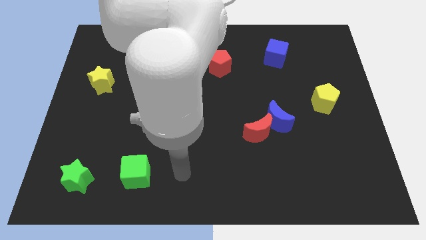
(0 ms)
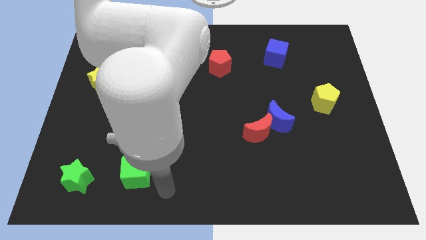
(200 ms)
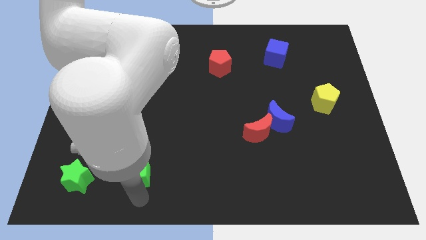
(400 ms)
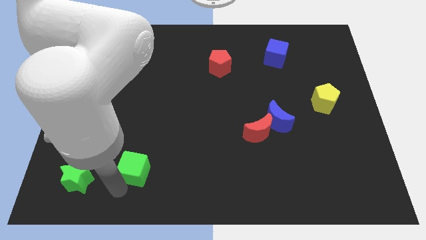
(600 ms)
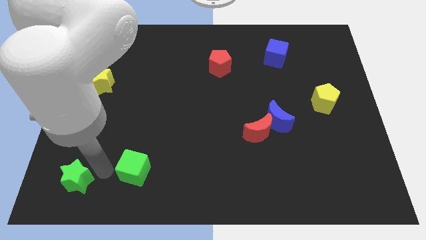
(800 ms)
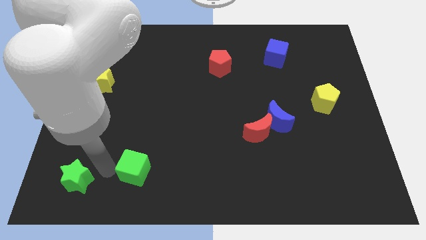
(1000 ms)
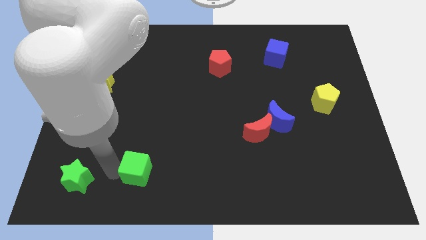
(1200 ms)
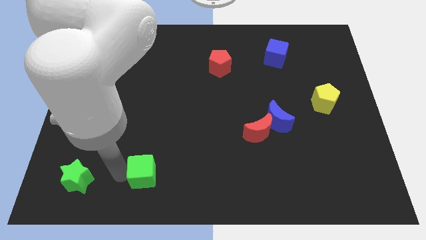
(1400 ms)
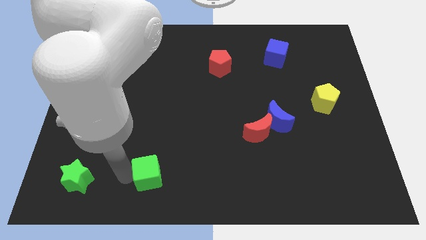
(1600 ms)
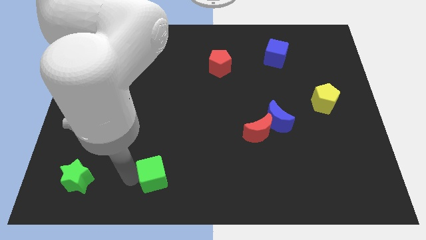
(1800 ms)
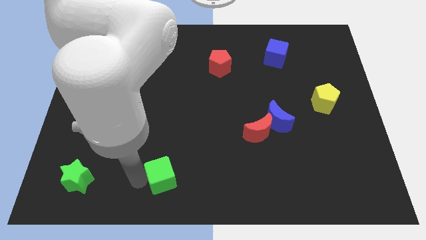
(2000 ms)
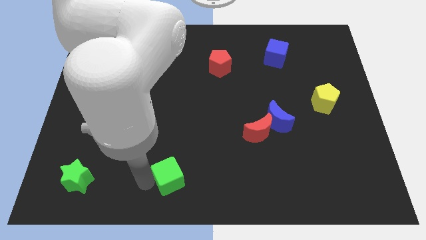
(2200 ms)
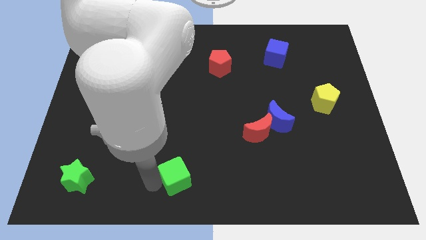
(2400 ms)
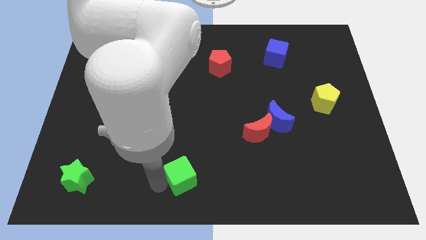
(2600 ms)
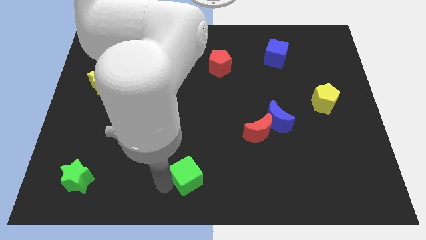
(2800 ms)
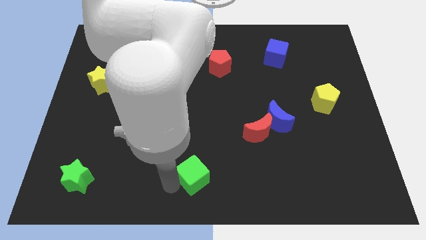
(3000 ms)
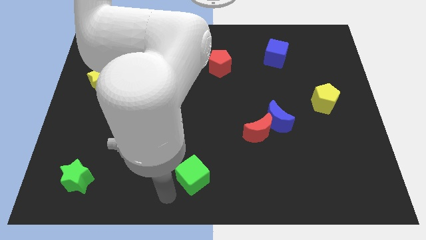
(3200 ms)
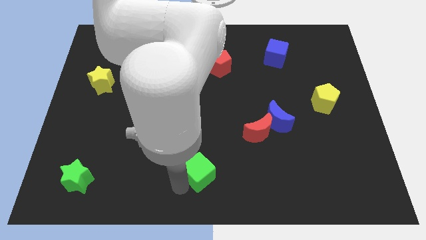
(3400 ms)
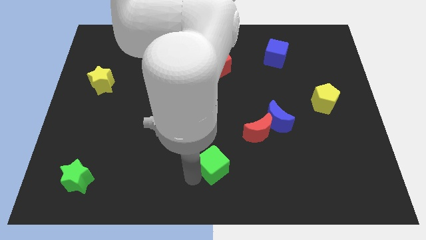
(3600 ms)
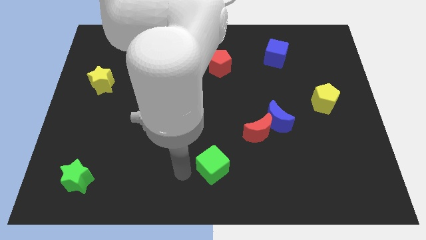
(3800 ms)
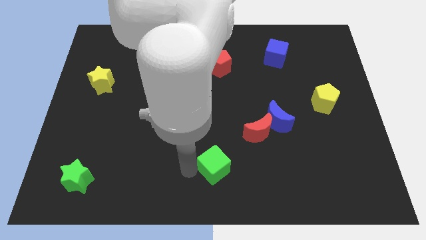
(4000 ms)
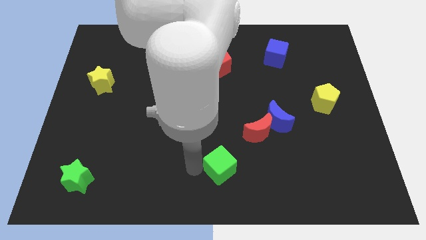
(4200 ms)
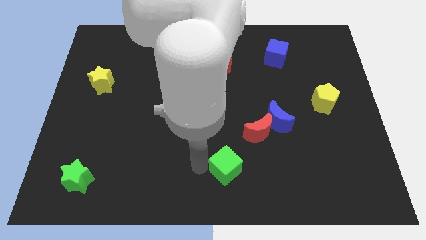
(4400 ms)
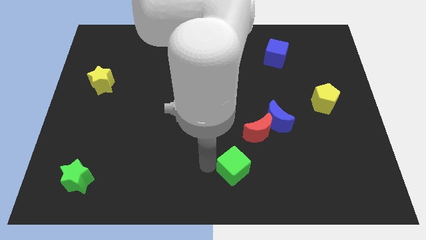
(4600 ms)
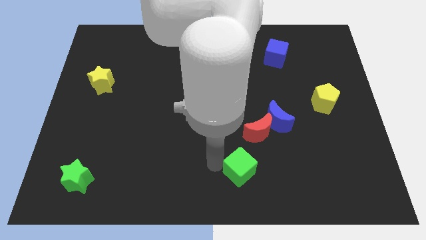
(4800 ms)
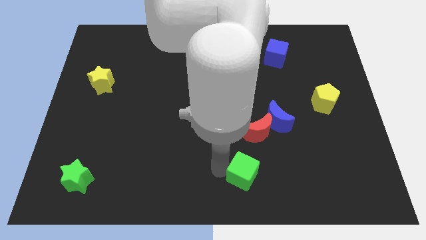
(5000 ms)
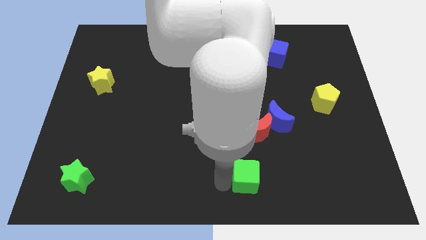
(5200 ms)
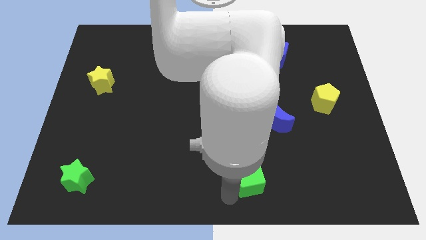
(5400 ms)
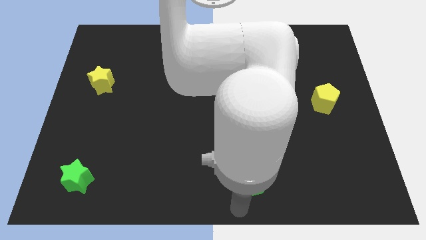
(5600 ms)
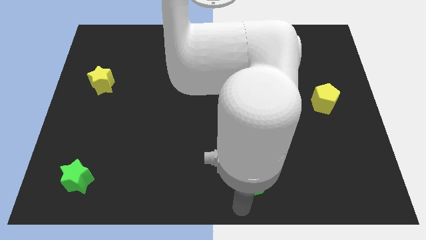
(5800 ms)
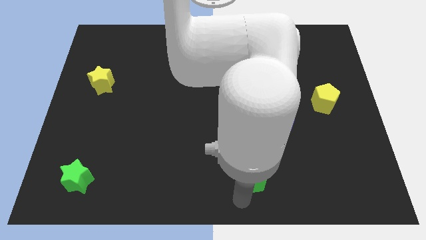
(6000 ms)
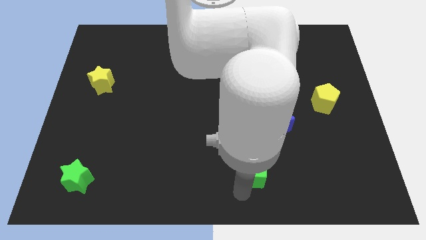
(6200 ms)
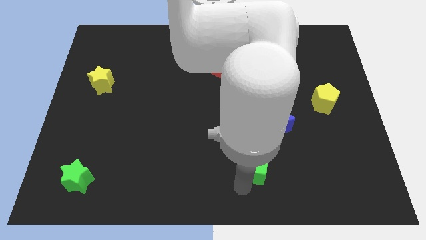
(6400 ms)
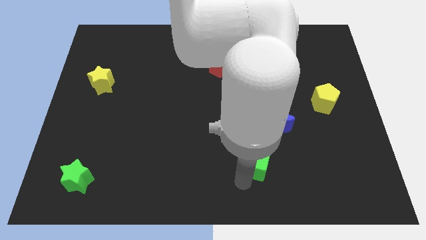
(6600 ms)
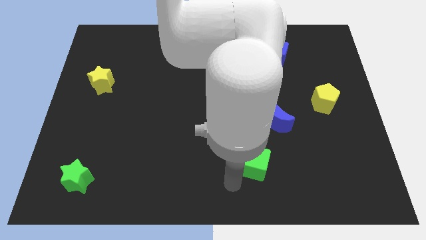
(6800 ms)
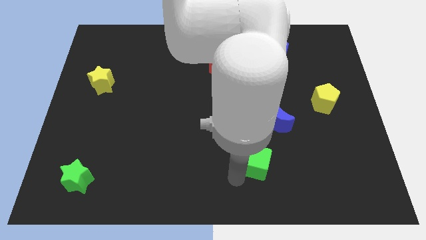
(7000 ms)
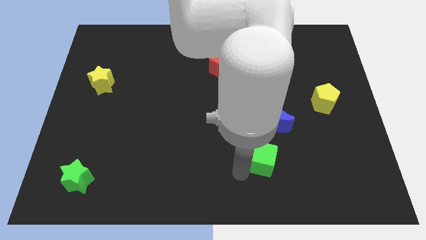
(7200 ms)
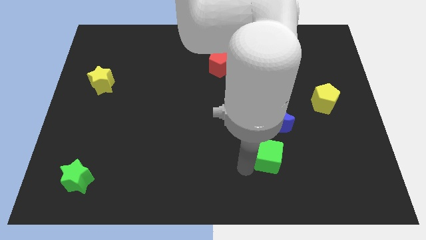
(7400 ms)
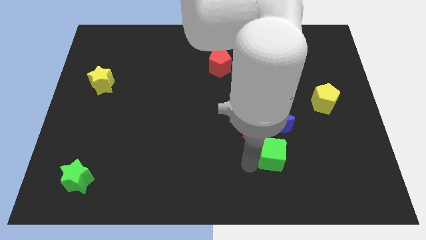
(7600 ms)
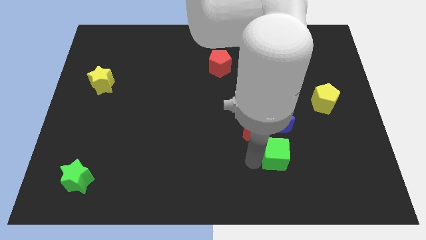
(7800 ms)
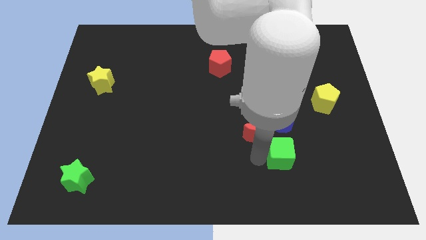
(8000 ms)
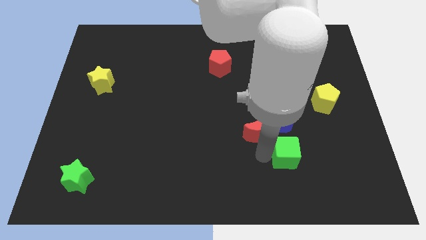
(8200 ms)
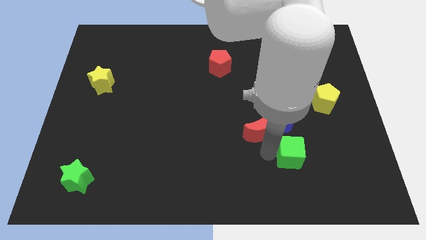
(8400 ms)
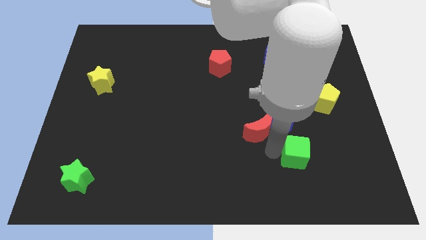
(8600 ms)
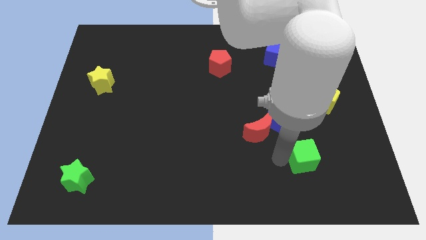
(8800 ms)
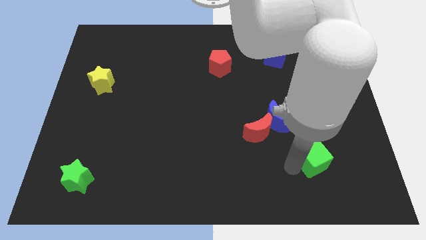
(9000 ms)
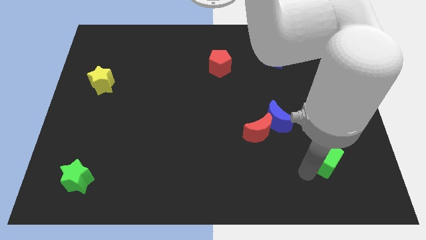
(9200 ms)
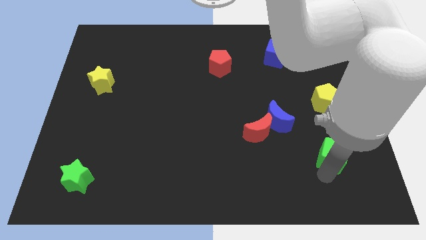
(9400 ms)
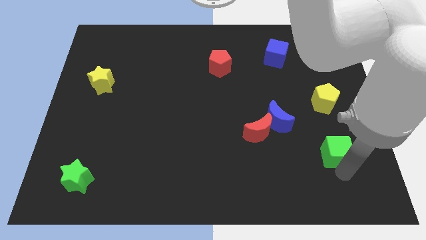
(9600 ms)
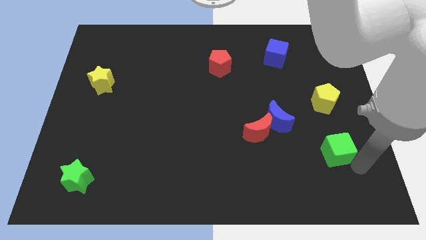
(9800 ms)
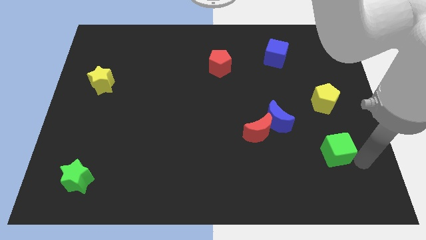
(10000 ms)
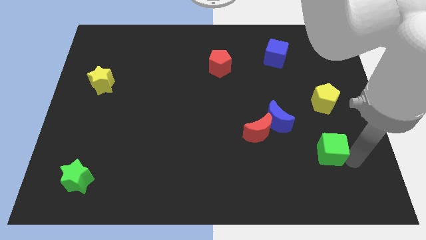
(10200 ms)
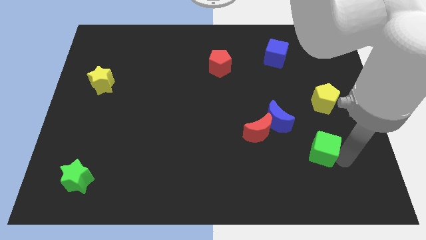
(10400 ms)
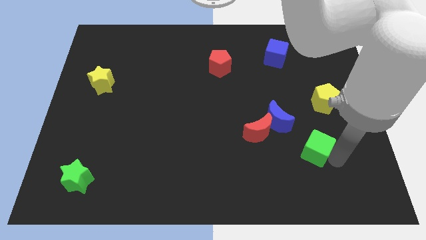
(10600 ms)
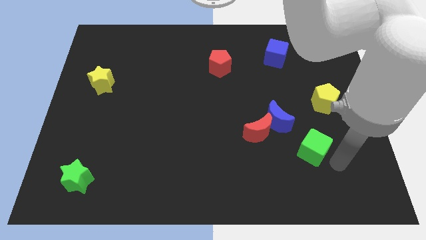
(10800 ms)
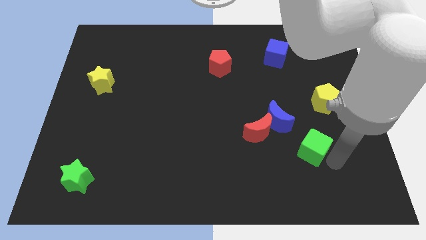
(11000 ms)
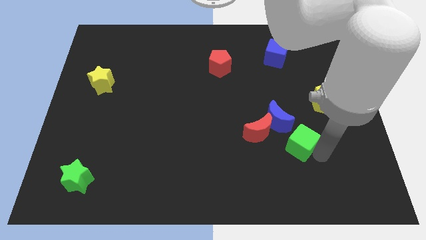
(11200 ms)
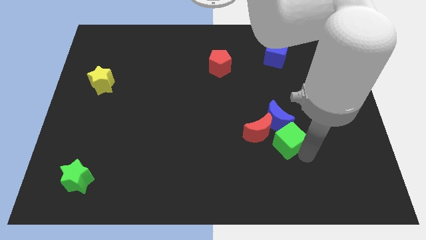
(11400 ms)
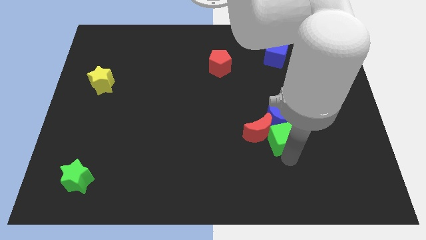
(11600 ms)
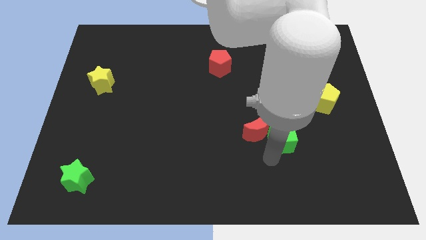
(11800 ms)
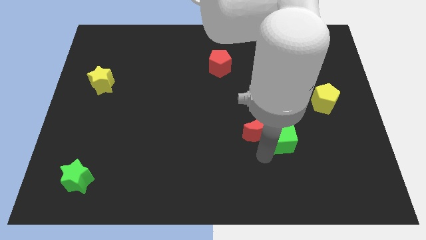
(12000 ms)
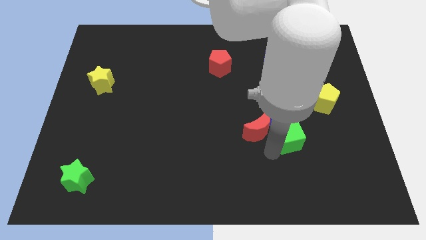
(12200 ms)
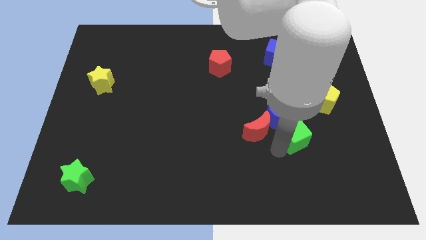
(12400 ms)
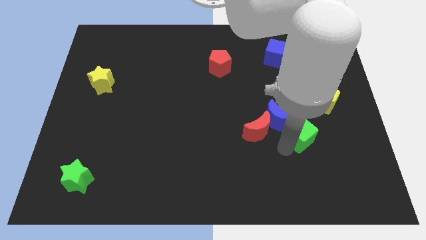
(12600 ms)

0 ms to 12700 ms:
move the green cube to the bottom left side of the yellow pentagon

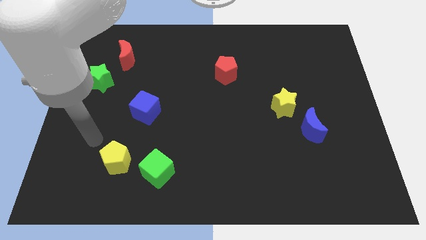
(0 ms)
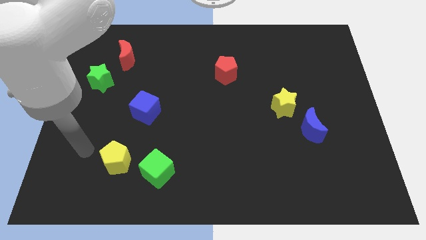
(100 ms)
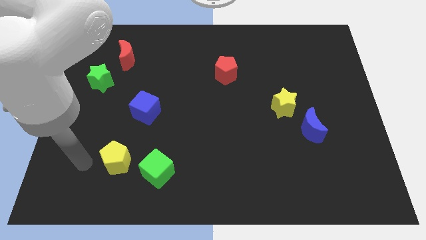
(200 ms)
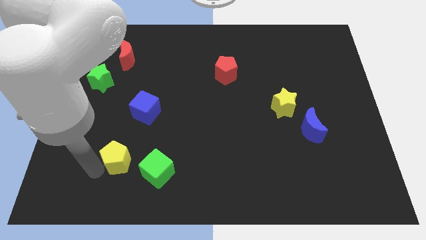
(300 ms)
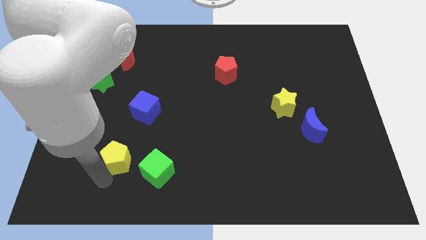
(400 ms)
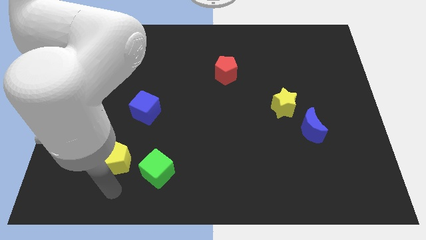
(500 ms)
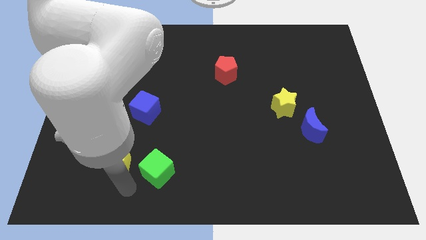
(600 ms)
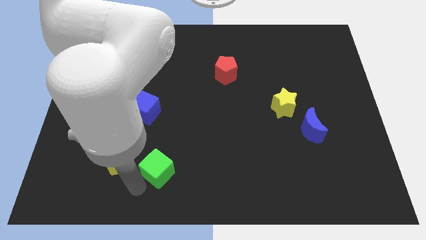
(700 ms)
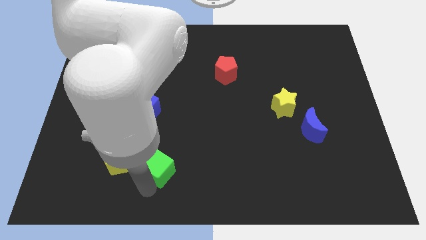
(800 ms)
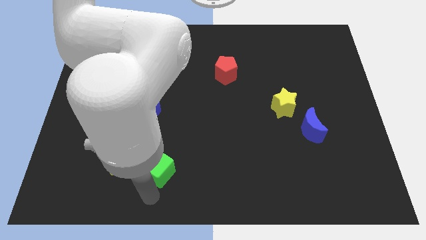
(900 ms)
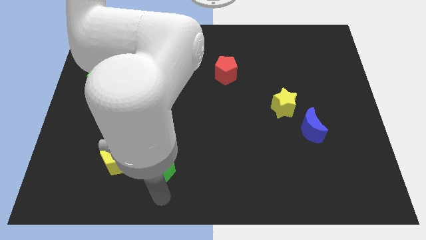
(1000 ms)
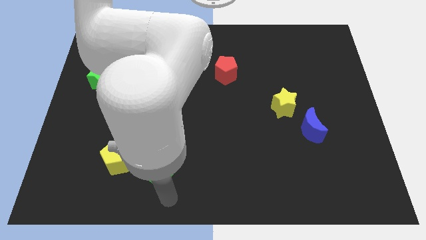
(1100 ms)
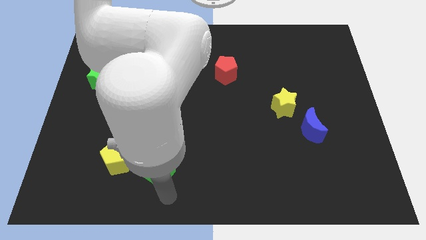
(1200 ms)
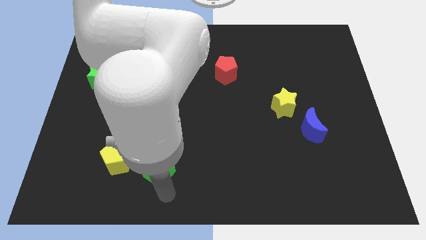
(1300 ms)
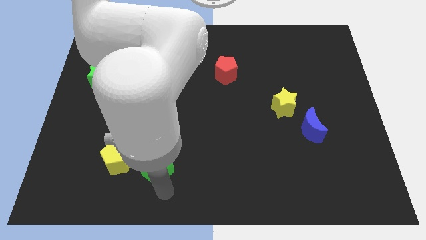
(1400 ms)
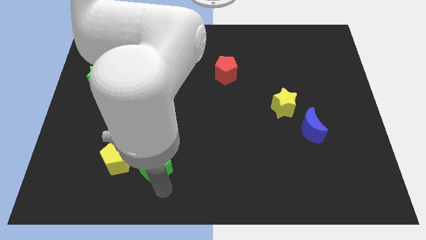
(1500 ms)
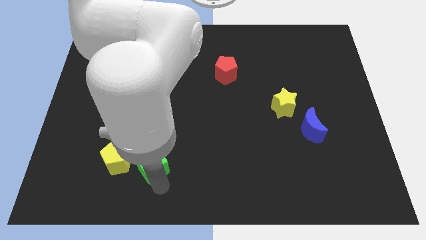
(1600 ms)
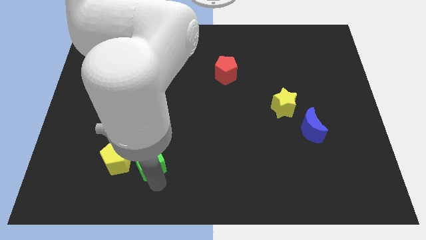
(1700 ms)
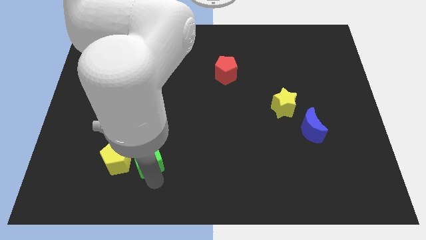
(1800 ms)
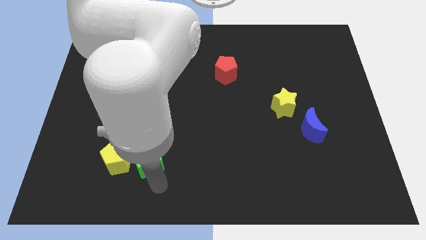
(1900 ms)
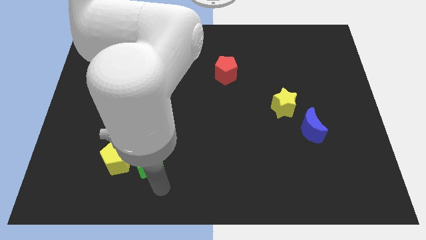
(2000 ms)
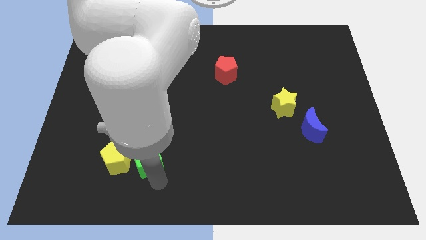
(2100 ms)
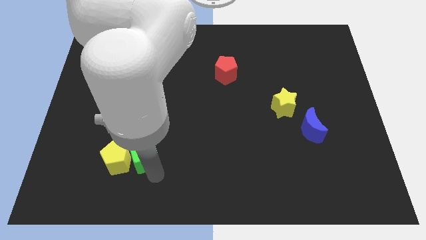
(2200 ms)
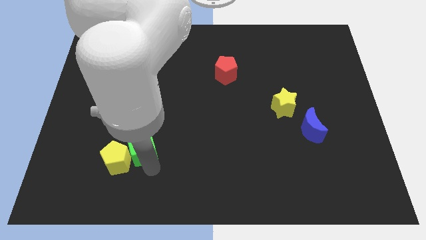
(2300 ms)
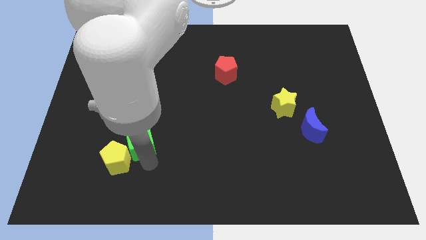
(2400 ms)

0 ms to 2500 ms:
put the green cube to the top side of the yellow pentagon
